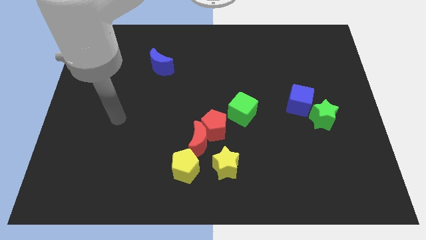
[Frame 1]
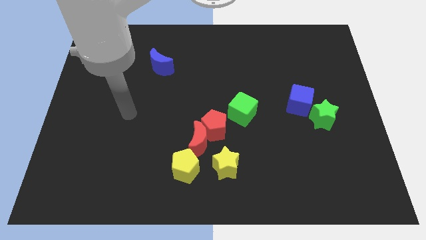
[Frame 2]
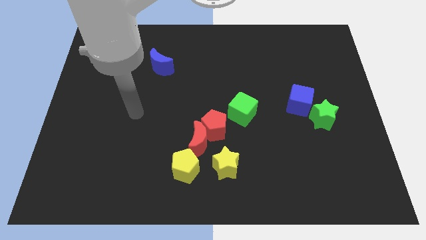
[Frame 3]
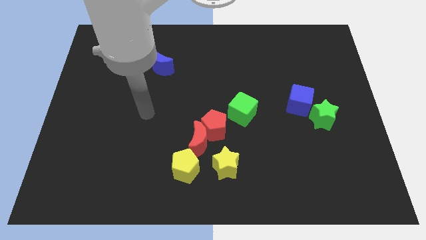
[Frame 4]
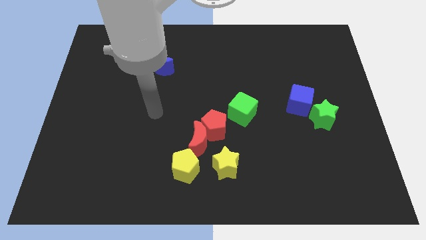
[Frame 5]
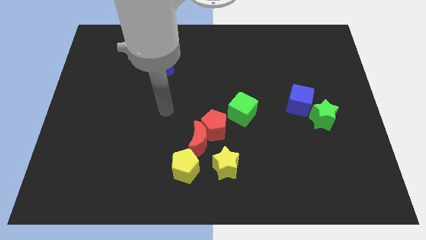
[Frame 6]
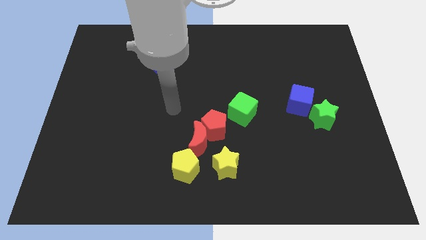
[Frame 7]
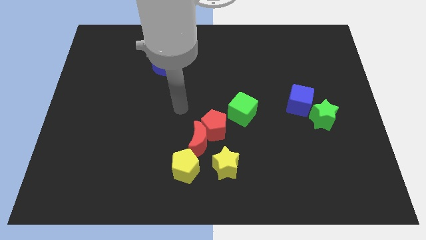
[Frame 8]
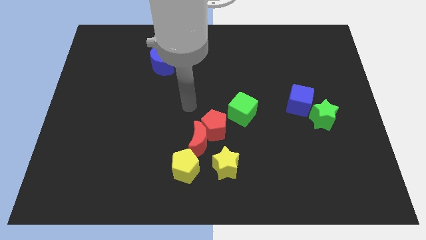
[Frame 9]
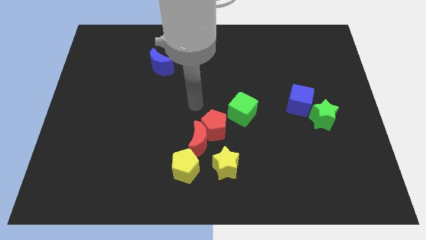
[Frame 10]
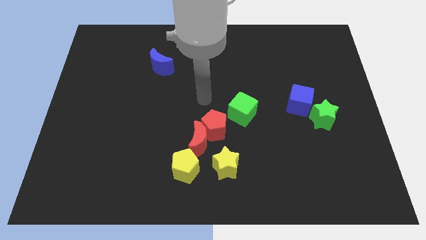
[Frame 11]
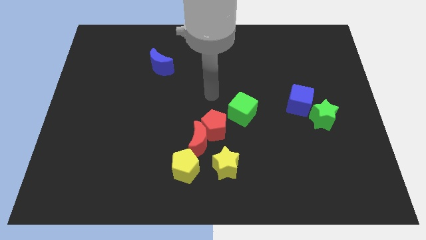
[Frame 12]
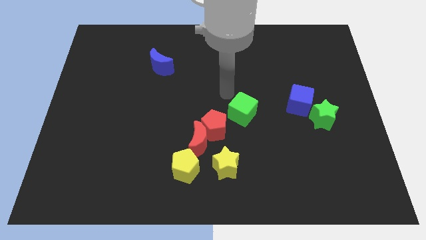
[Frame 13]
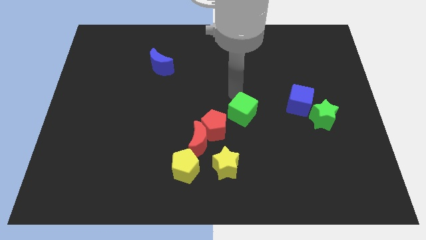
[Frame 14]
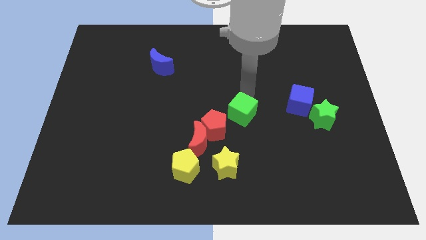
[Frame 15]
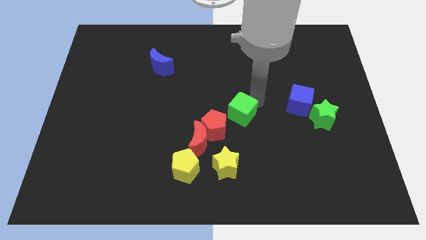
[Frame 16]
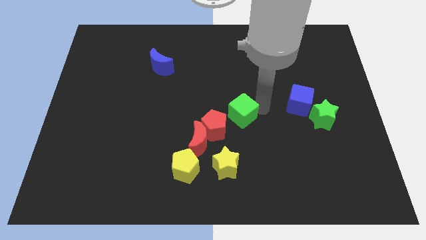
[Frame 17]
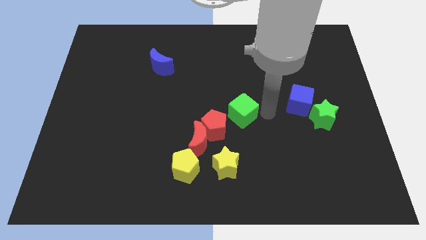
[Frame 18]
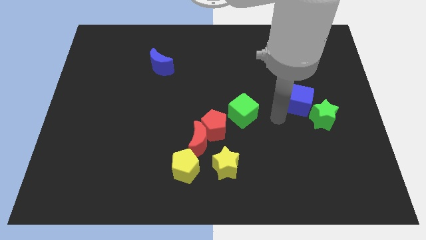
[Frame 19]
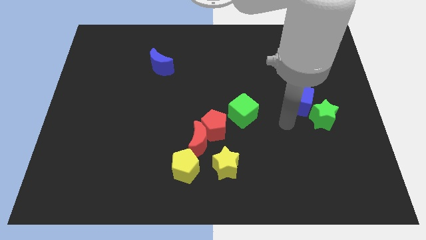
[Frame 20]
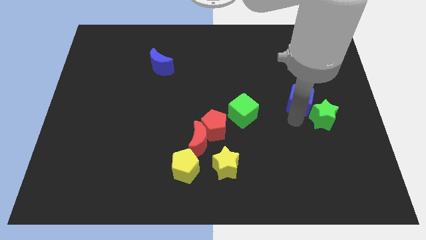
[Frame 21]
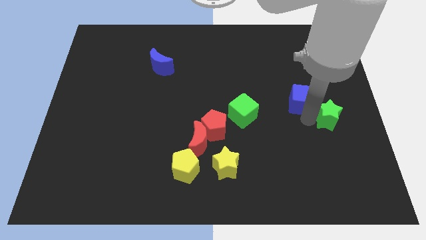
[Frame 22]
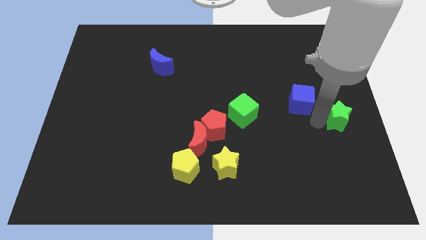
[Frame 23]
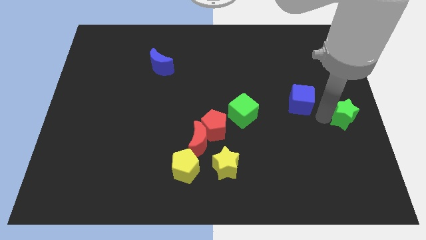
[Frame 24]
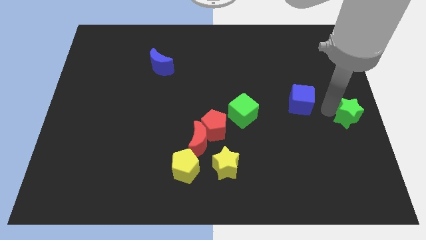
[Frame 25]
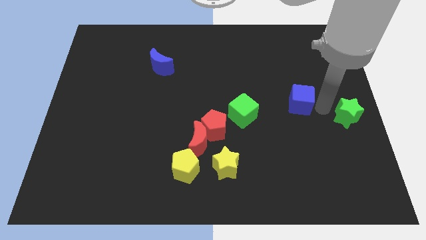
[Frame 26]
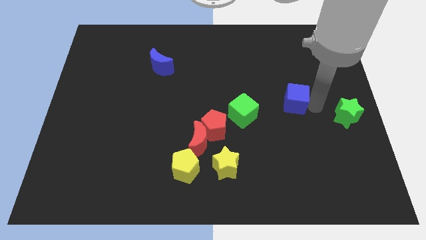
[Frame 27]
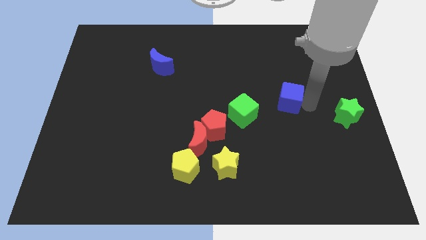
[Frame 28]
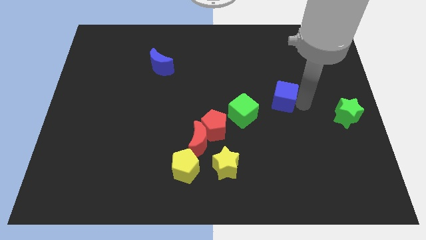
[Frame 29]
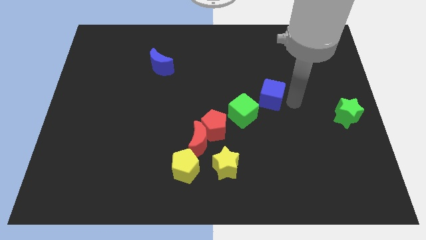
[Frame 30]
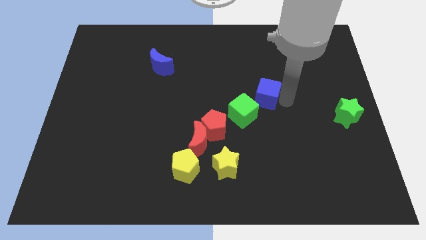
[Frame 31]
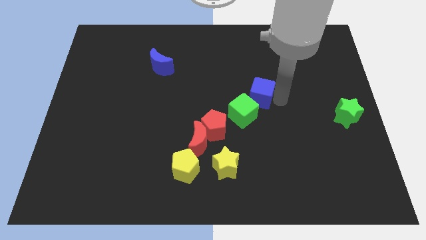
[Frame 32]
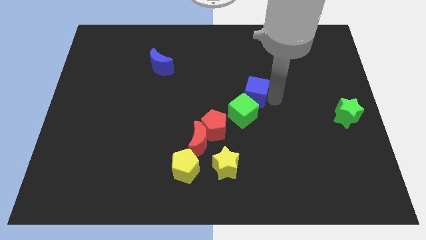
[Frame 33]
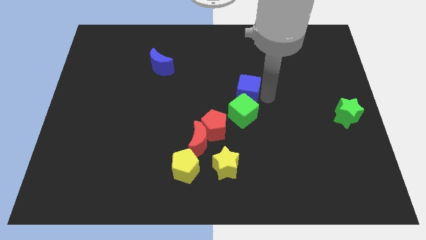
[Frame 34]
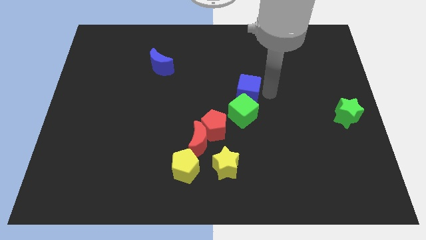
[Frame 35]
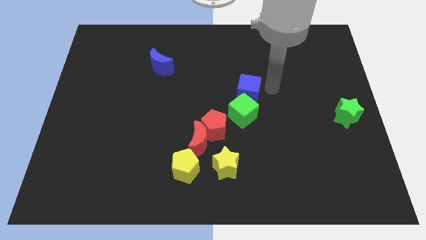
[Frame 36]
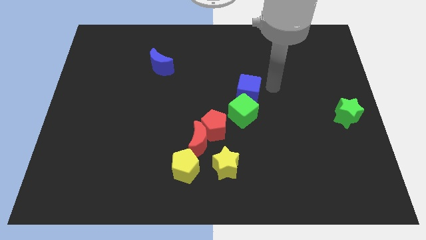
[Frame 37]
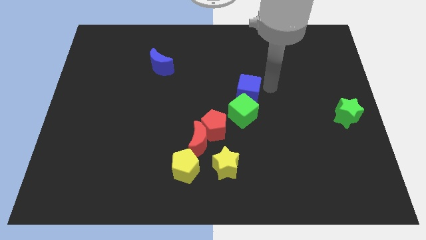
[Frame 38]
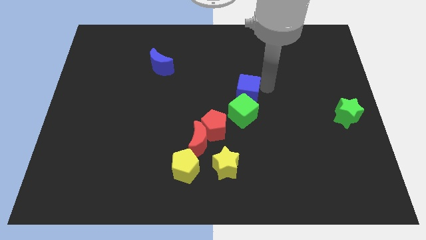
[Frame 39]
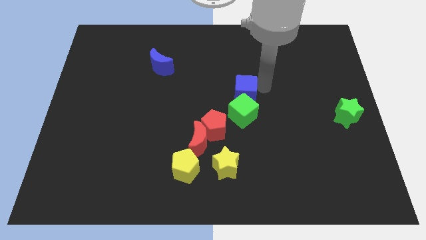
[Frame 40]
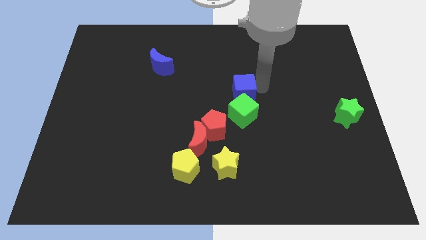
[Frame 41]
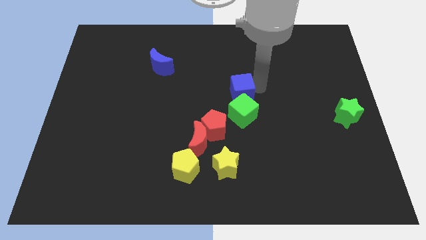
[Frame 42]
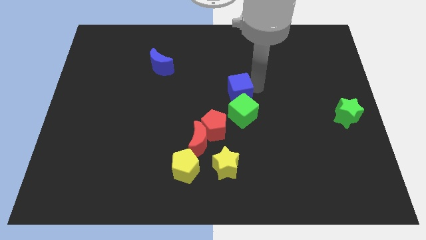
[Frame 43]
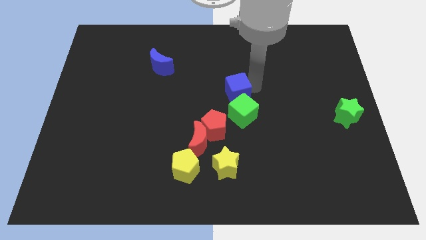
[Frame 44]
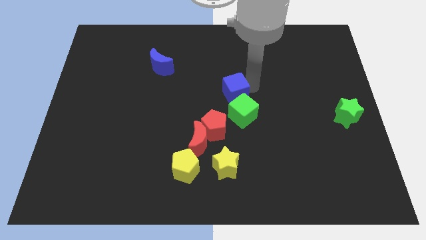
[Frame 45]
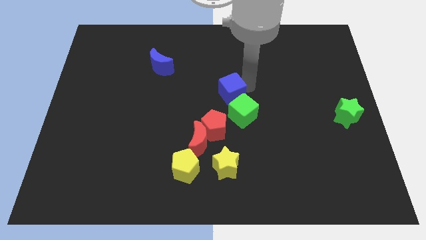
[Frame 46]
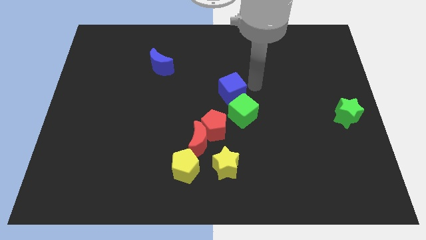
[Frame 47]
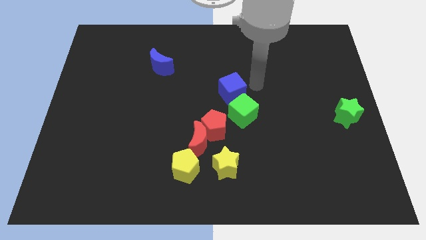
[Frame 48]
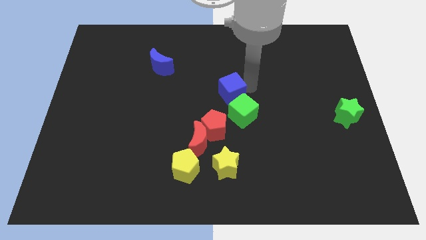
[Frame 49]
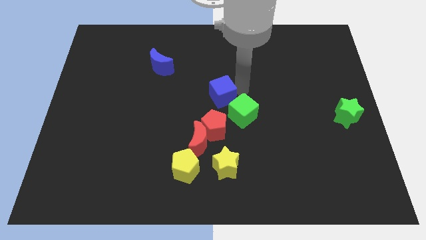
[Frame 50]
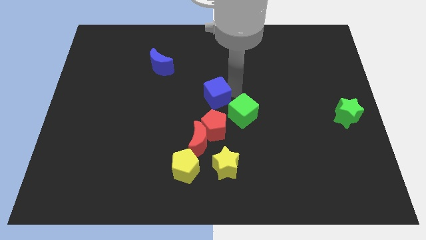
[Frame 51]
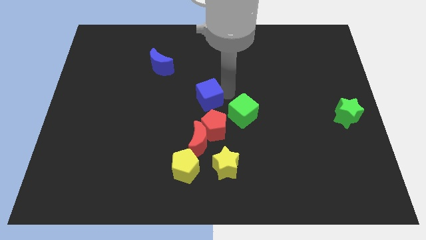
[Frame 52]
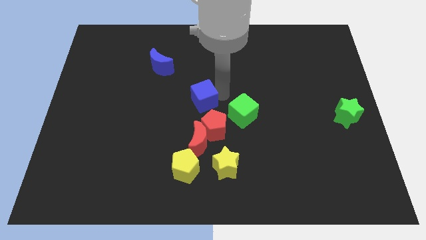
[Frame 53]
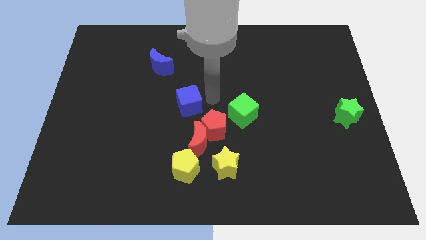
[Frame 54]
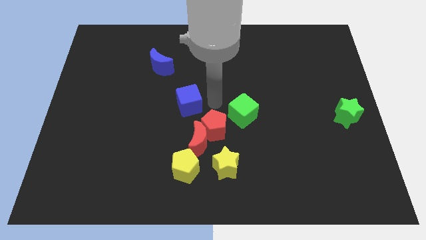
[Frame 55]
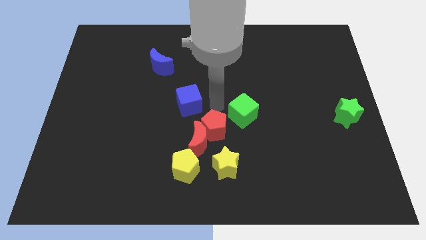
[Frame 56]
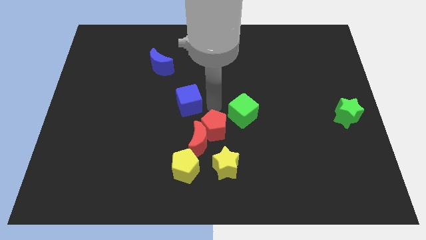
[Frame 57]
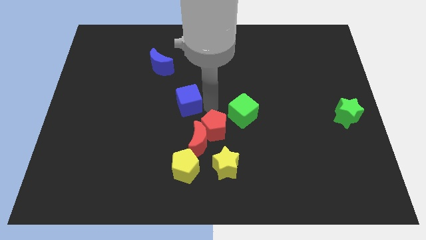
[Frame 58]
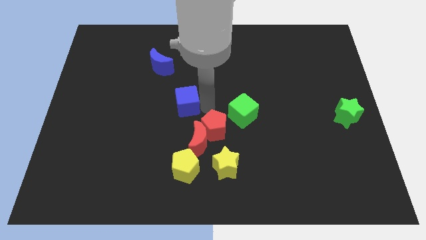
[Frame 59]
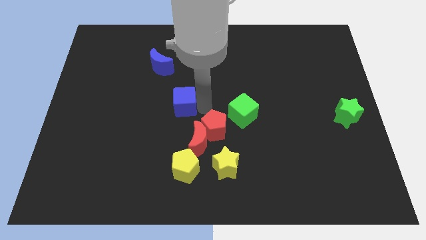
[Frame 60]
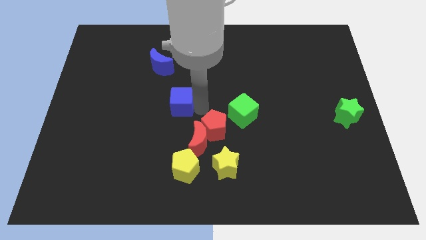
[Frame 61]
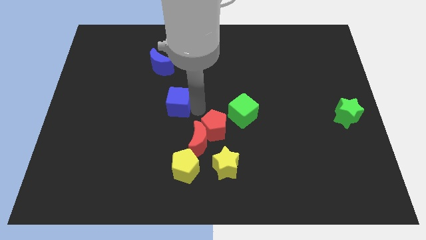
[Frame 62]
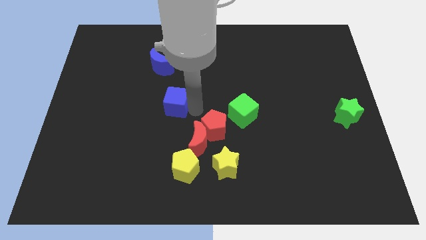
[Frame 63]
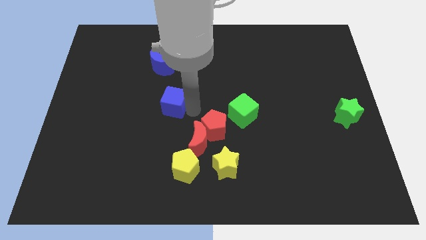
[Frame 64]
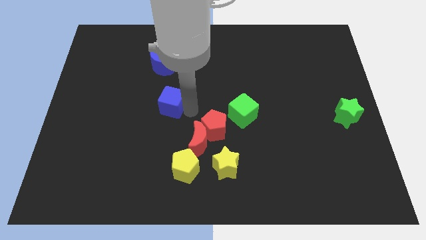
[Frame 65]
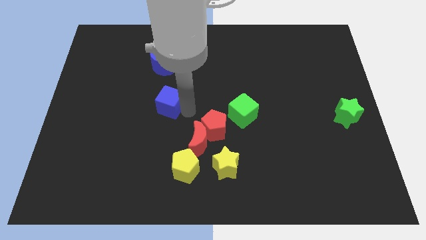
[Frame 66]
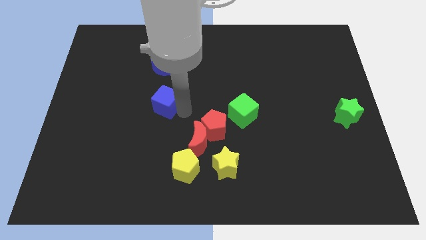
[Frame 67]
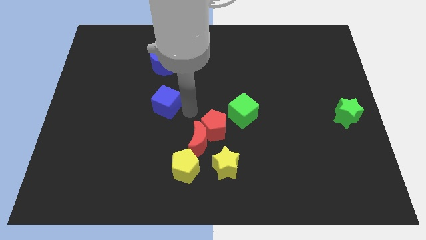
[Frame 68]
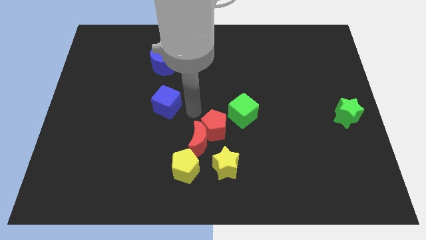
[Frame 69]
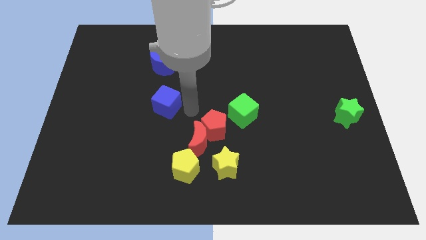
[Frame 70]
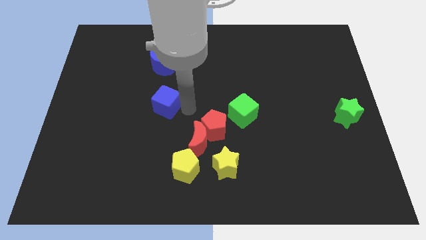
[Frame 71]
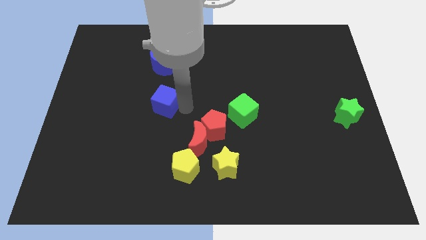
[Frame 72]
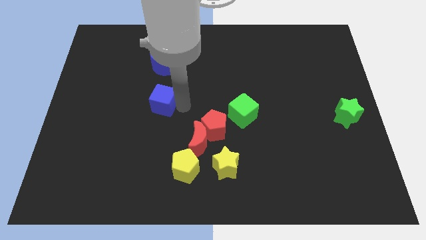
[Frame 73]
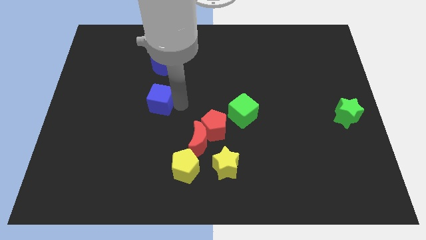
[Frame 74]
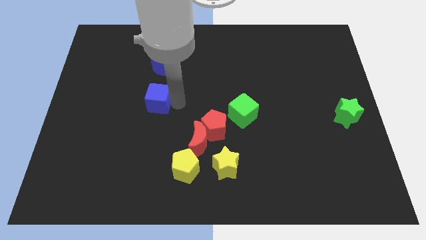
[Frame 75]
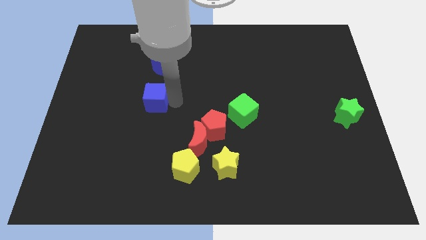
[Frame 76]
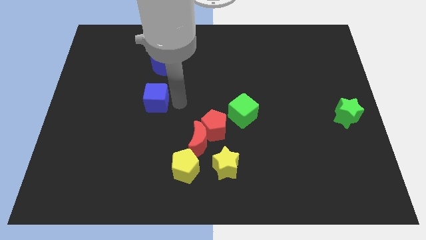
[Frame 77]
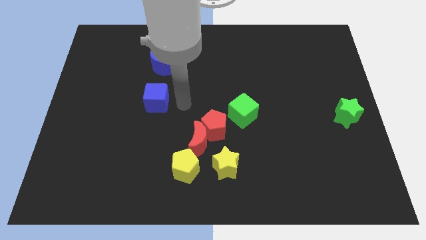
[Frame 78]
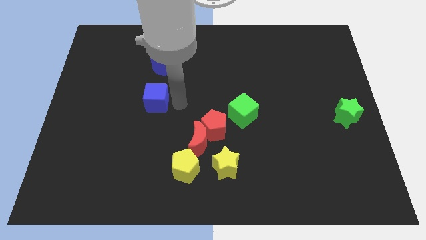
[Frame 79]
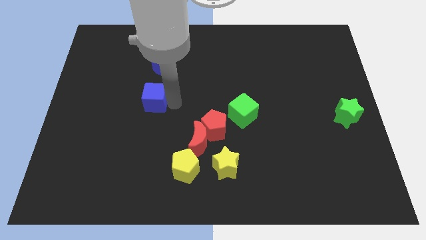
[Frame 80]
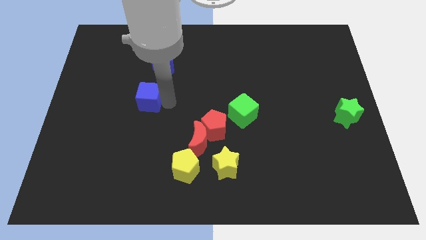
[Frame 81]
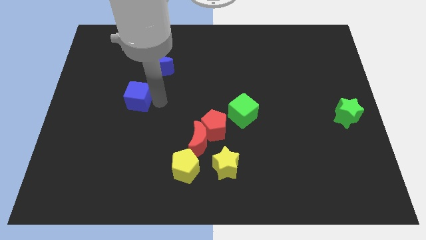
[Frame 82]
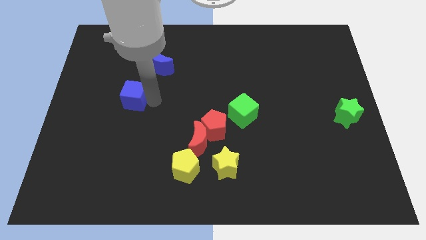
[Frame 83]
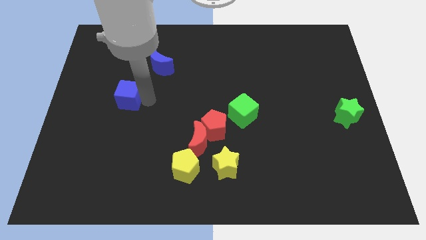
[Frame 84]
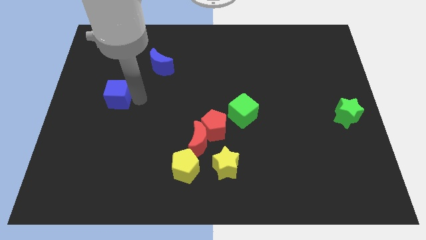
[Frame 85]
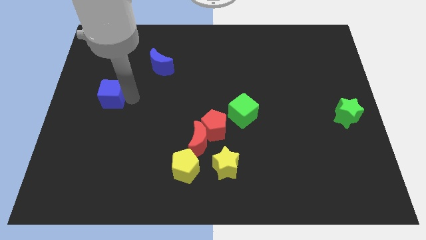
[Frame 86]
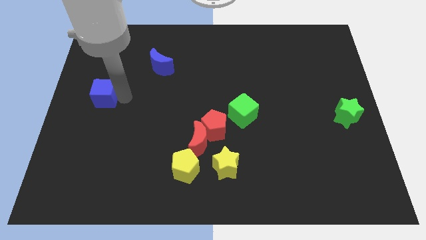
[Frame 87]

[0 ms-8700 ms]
move the blue cube to the left side
